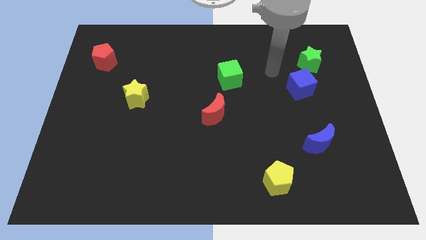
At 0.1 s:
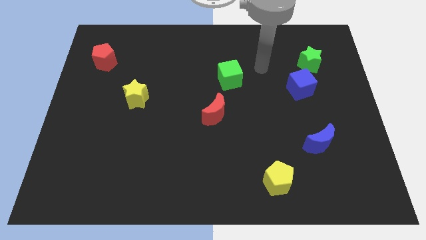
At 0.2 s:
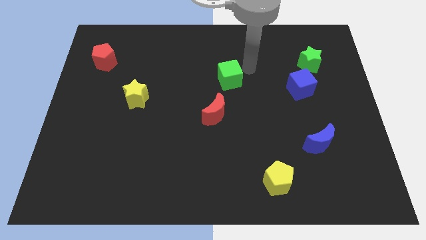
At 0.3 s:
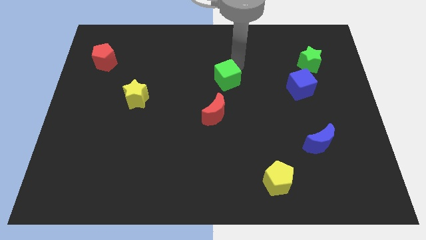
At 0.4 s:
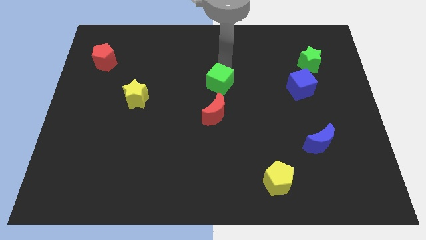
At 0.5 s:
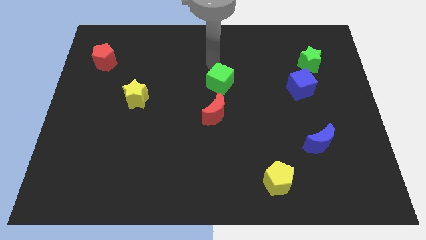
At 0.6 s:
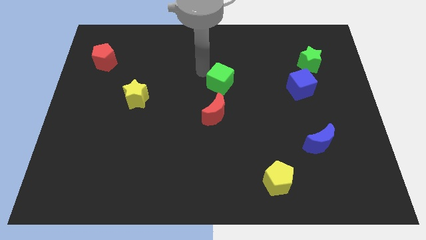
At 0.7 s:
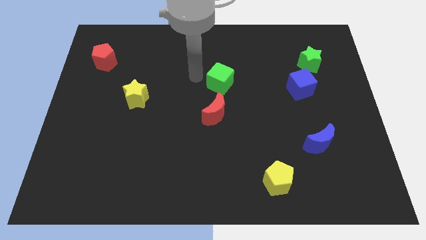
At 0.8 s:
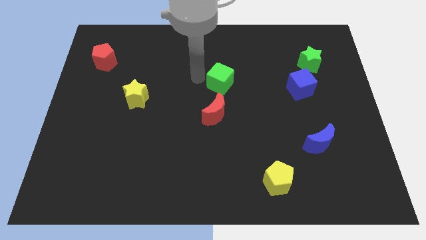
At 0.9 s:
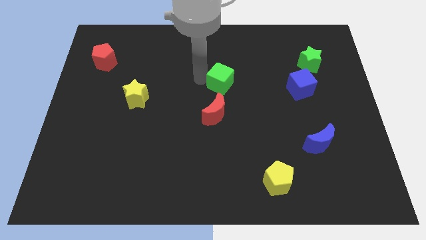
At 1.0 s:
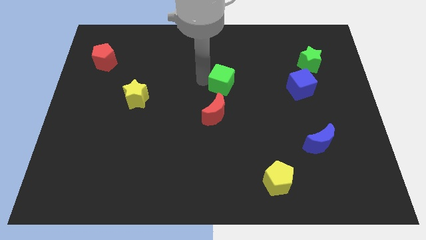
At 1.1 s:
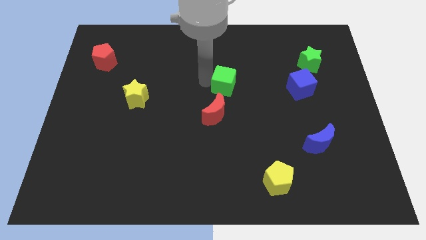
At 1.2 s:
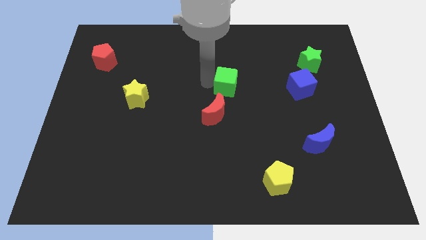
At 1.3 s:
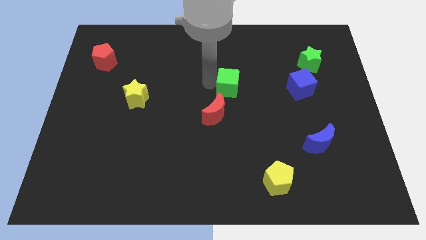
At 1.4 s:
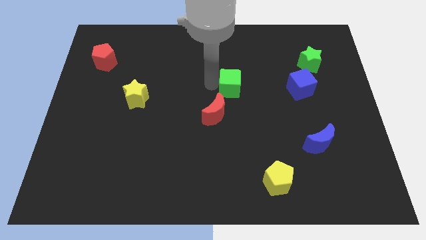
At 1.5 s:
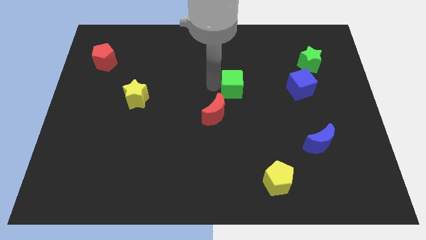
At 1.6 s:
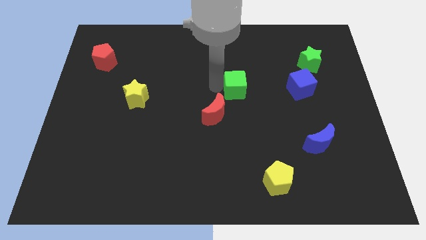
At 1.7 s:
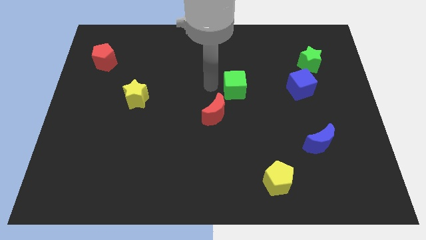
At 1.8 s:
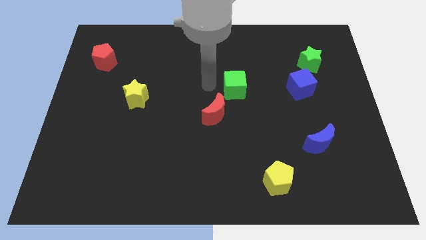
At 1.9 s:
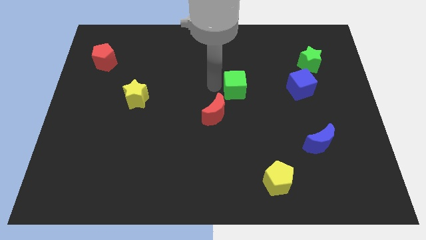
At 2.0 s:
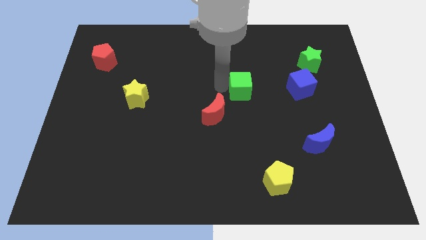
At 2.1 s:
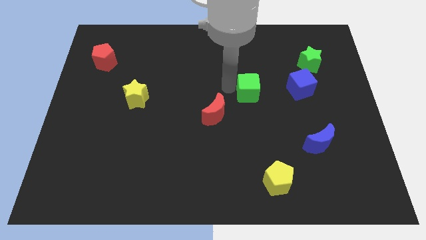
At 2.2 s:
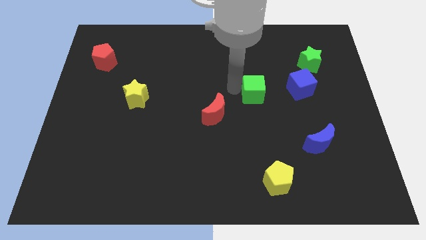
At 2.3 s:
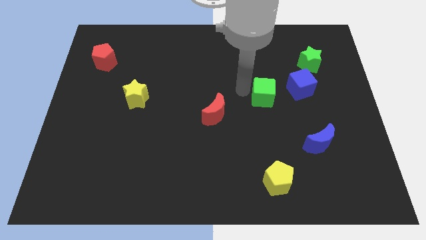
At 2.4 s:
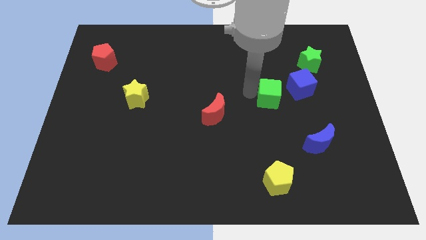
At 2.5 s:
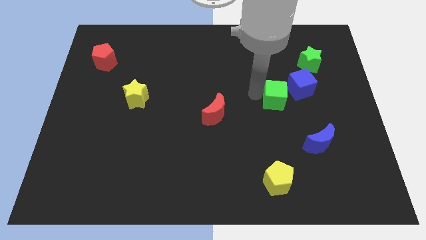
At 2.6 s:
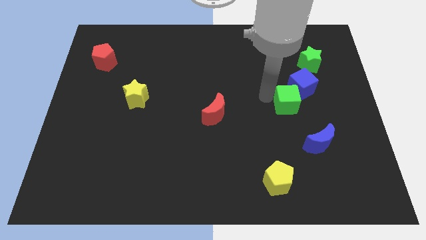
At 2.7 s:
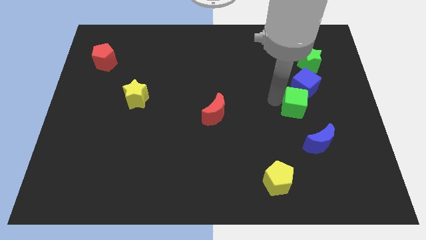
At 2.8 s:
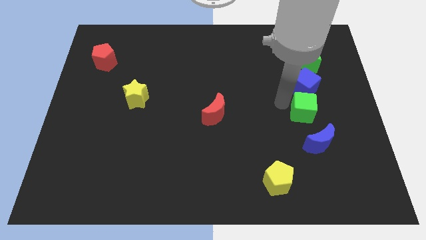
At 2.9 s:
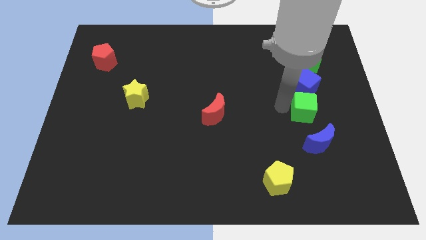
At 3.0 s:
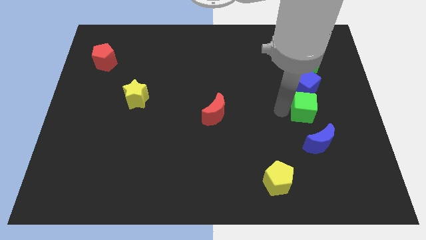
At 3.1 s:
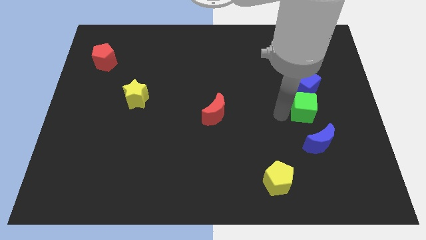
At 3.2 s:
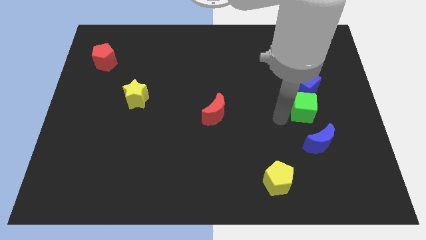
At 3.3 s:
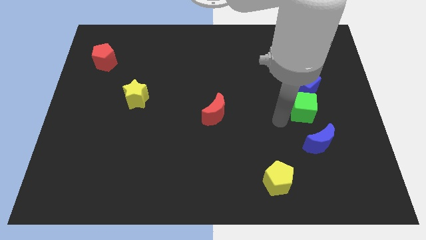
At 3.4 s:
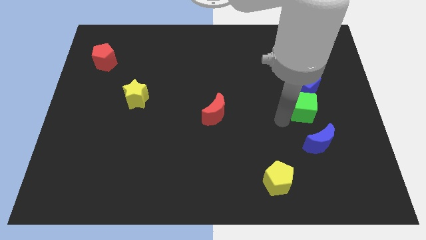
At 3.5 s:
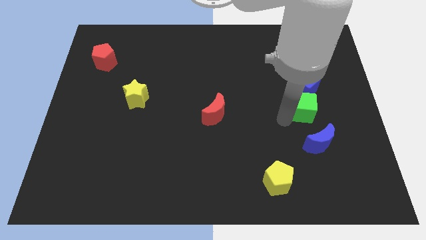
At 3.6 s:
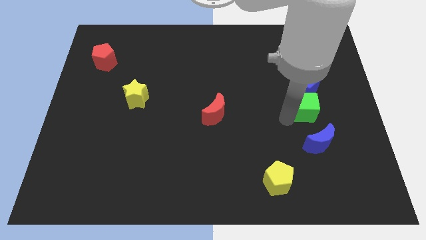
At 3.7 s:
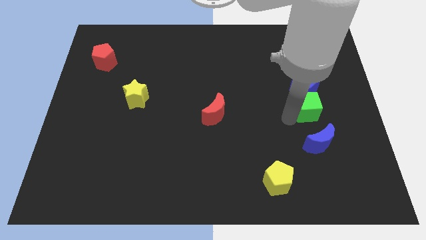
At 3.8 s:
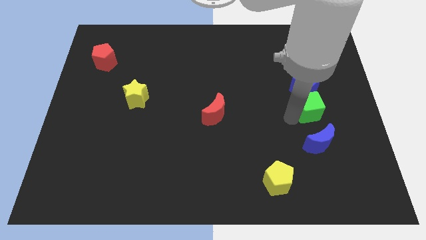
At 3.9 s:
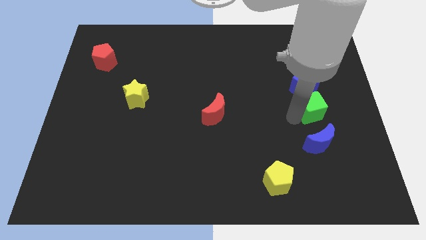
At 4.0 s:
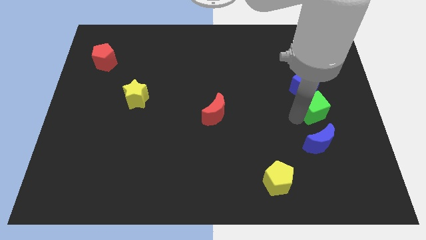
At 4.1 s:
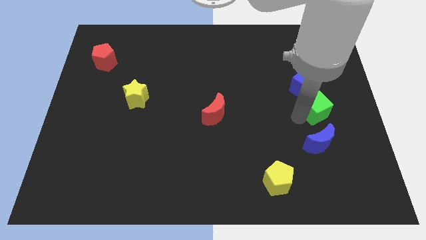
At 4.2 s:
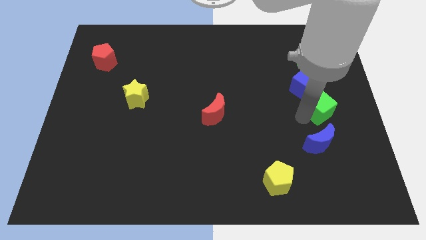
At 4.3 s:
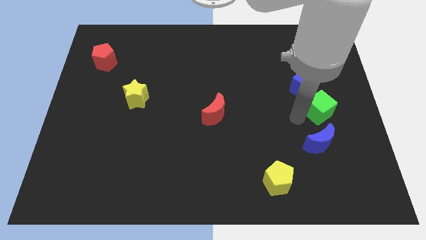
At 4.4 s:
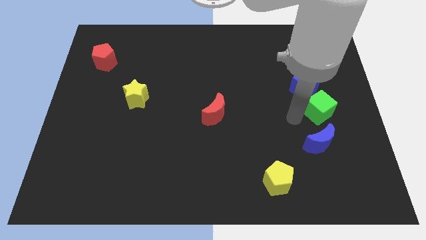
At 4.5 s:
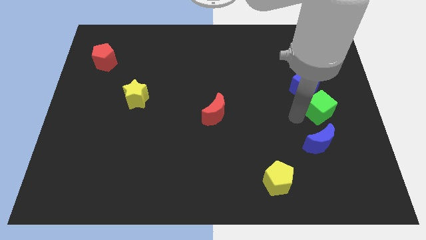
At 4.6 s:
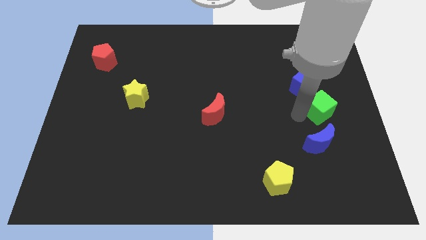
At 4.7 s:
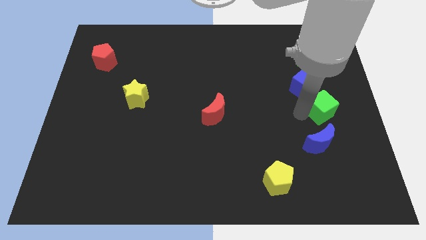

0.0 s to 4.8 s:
put the green cube to the center right

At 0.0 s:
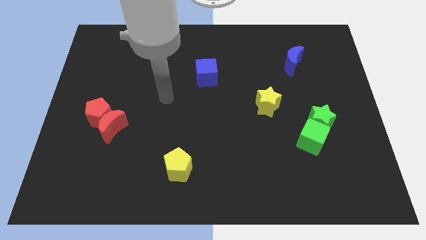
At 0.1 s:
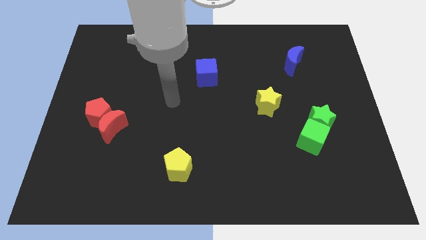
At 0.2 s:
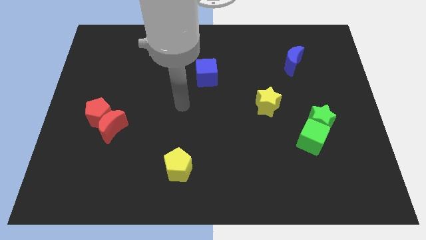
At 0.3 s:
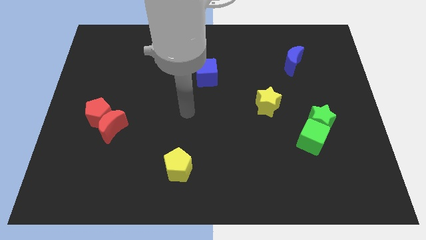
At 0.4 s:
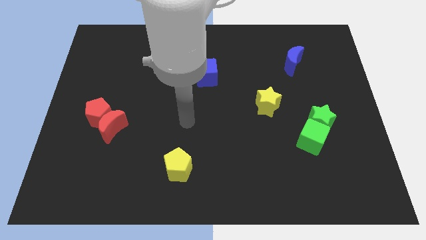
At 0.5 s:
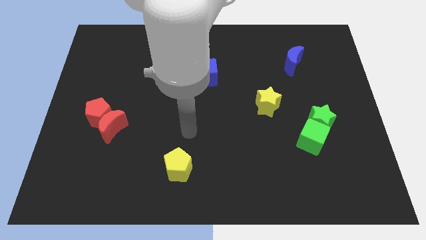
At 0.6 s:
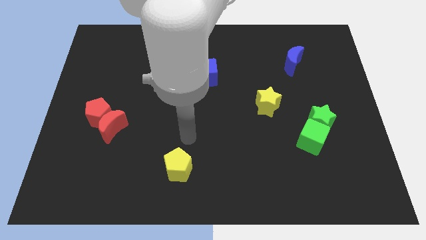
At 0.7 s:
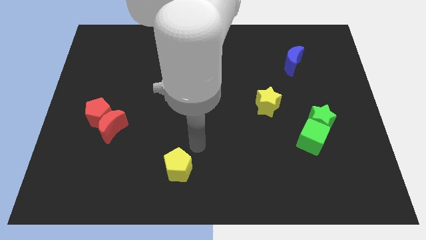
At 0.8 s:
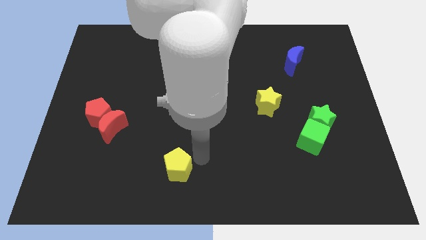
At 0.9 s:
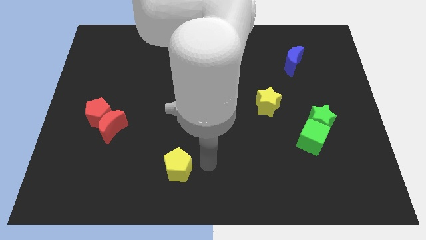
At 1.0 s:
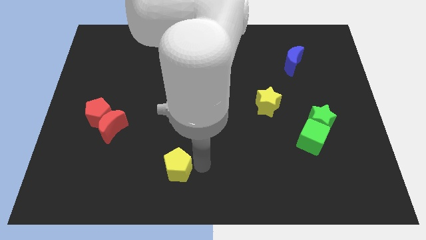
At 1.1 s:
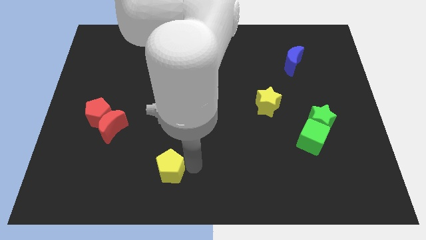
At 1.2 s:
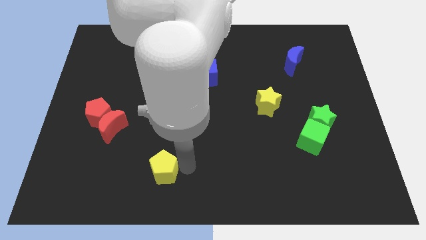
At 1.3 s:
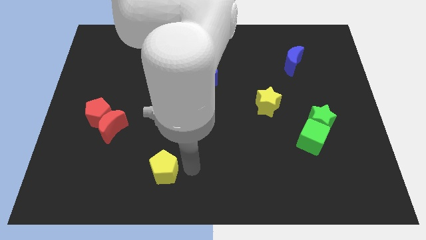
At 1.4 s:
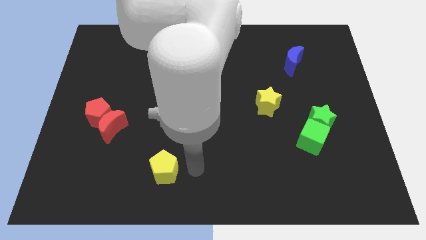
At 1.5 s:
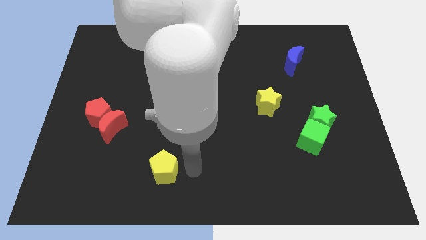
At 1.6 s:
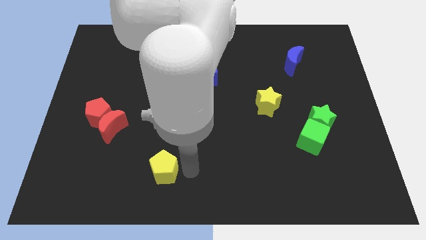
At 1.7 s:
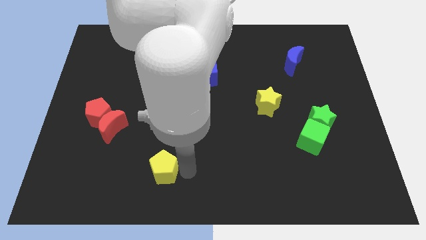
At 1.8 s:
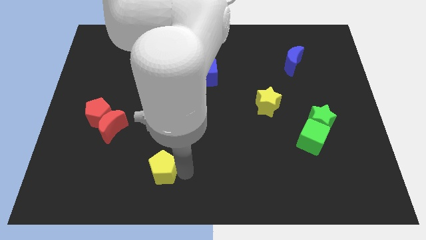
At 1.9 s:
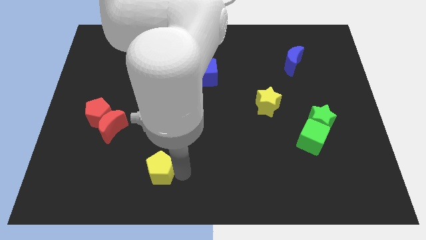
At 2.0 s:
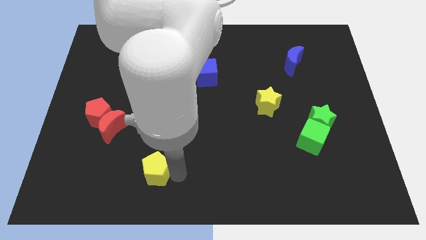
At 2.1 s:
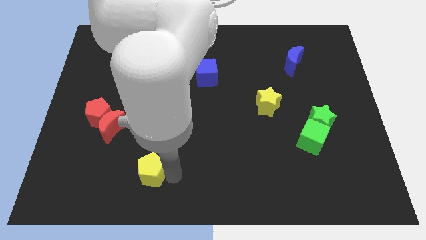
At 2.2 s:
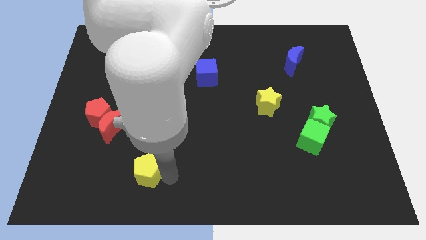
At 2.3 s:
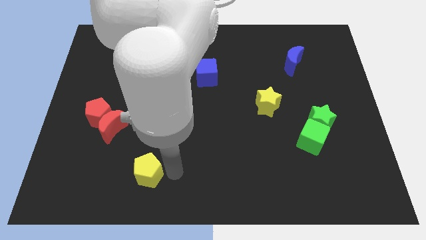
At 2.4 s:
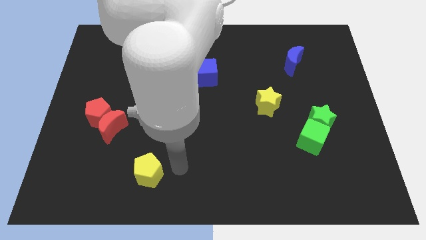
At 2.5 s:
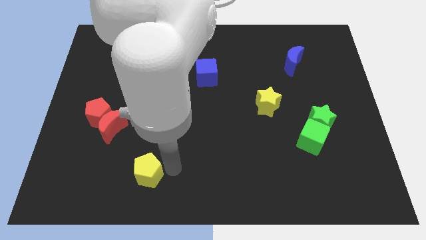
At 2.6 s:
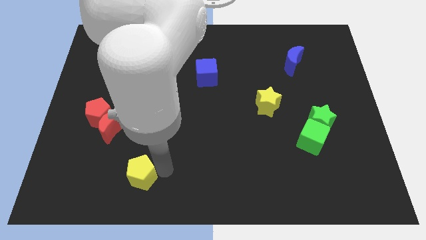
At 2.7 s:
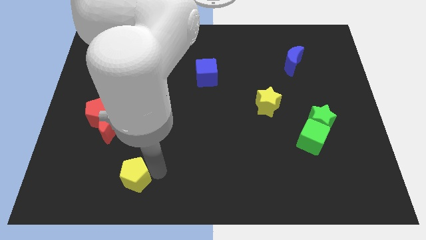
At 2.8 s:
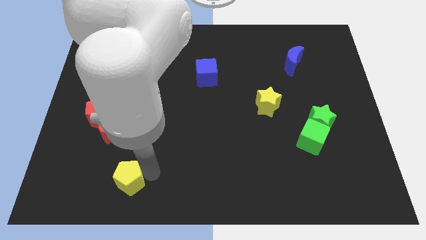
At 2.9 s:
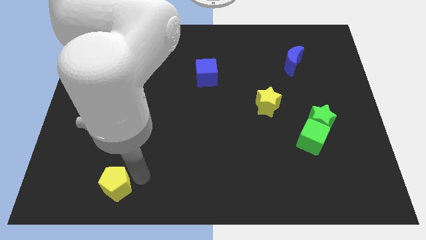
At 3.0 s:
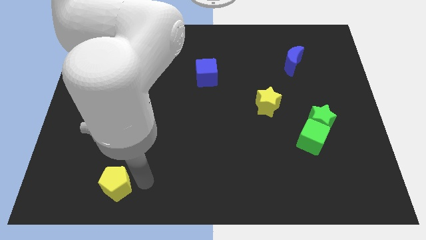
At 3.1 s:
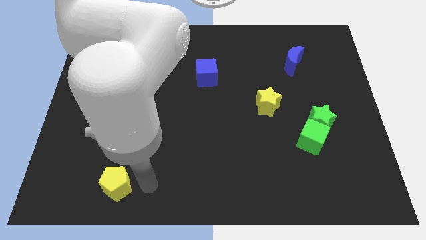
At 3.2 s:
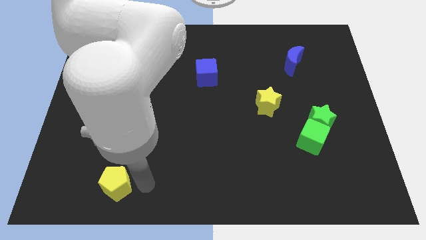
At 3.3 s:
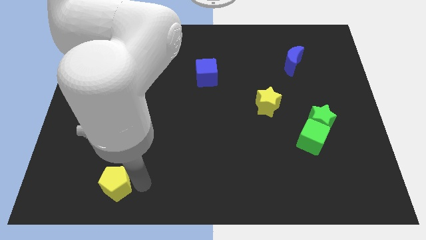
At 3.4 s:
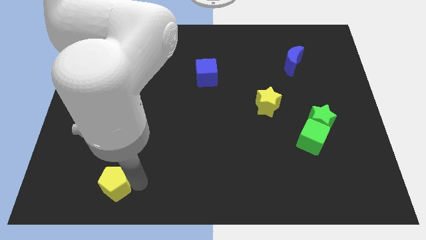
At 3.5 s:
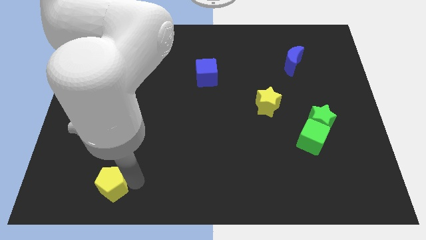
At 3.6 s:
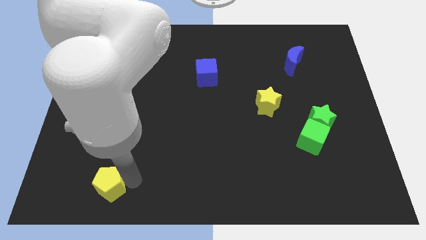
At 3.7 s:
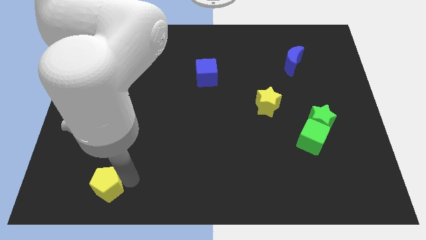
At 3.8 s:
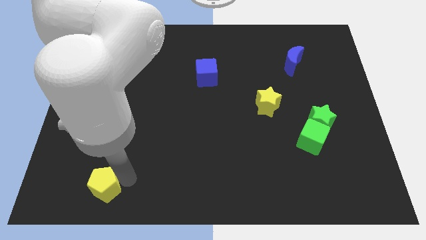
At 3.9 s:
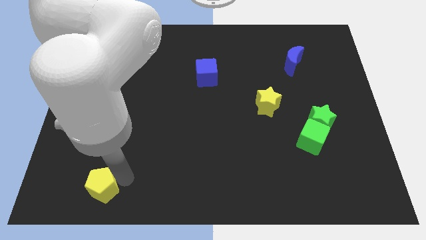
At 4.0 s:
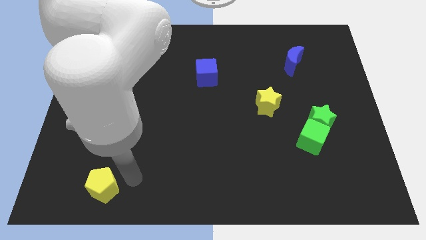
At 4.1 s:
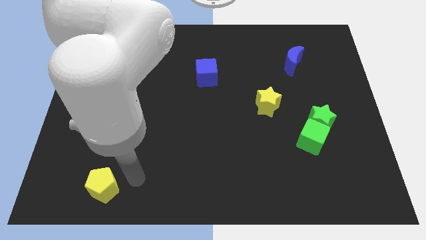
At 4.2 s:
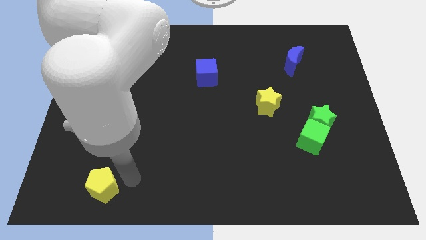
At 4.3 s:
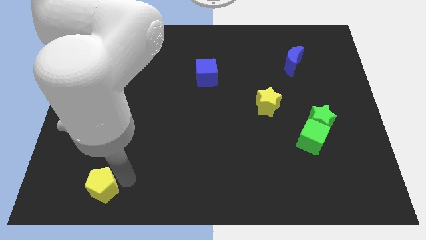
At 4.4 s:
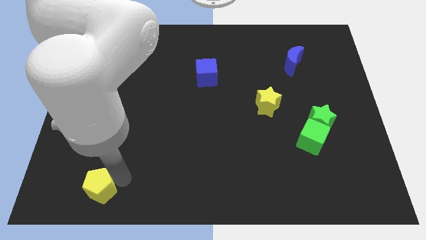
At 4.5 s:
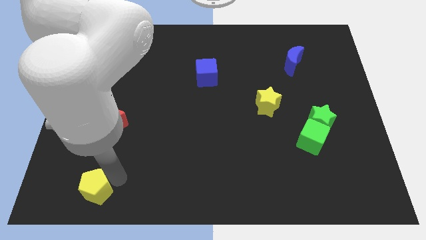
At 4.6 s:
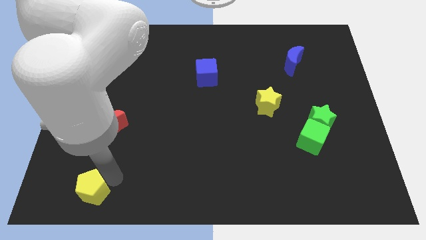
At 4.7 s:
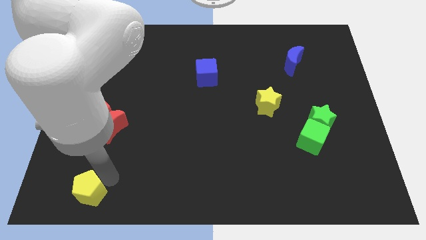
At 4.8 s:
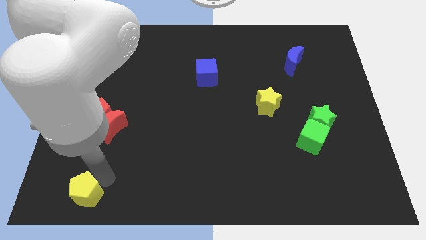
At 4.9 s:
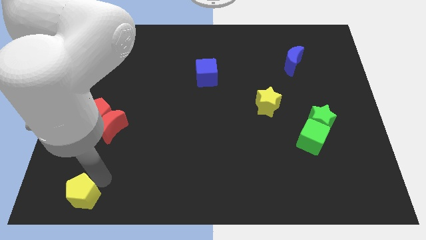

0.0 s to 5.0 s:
put the yellow pentagon to the bottom left
